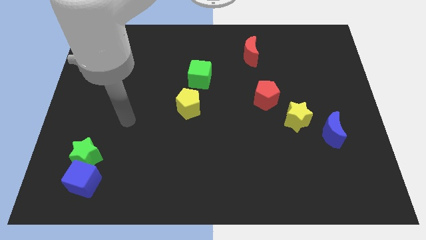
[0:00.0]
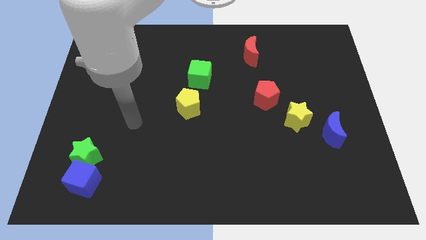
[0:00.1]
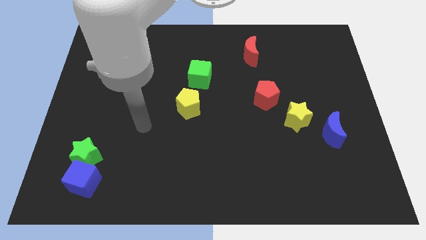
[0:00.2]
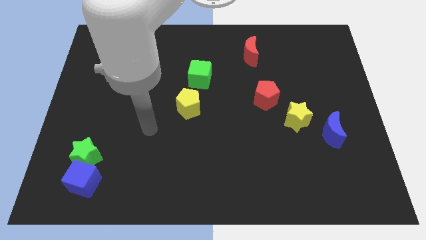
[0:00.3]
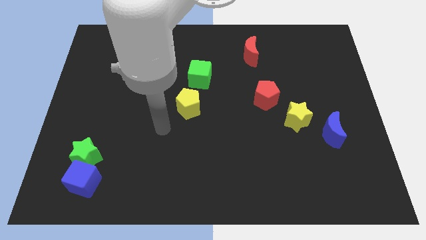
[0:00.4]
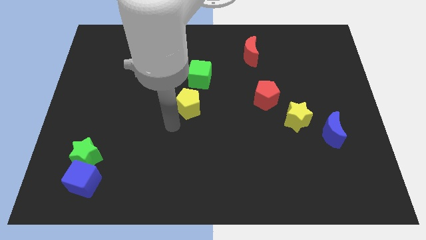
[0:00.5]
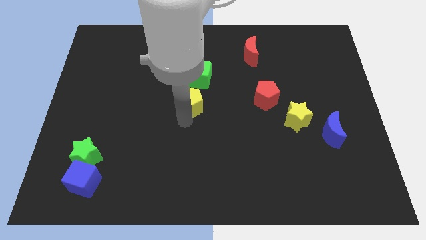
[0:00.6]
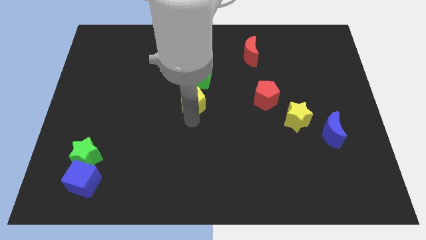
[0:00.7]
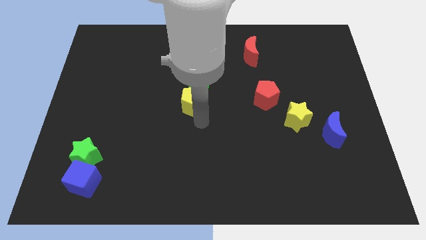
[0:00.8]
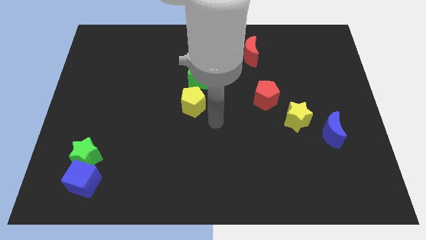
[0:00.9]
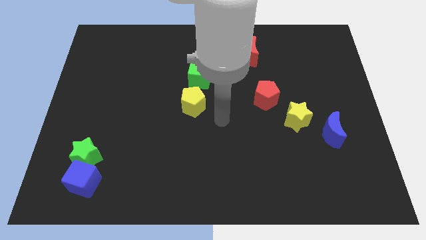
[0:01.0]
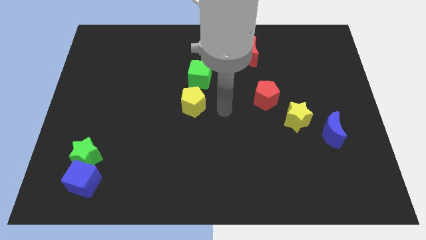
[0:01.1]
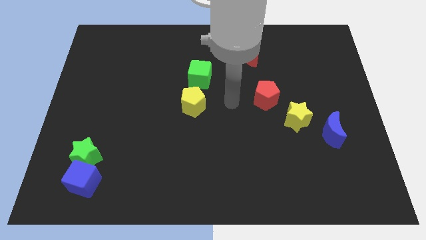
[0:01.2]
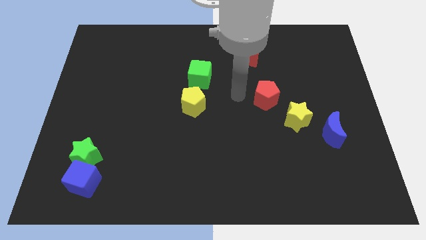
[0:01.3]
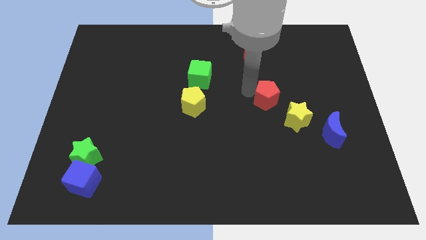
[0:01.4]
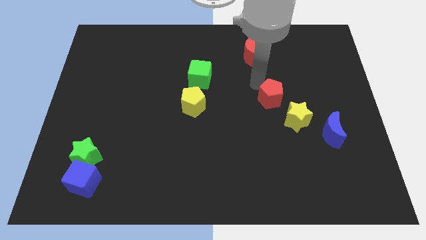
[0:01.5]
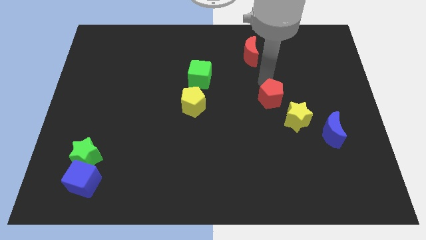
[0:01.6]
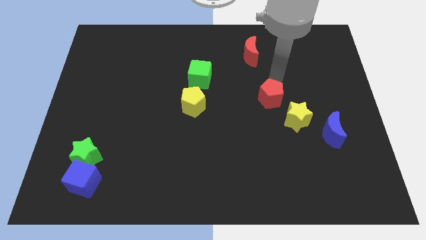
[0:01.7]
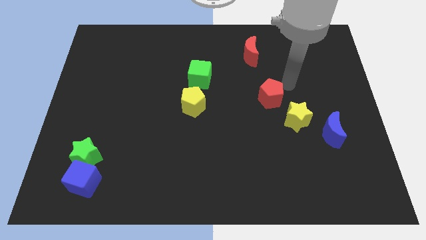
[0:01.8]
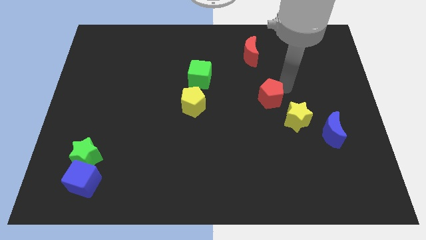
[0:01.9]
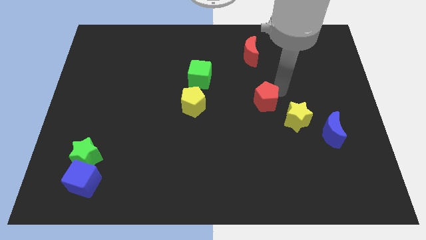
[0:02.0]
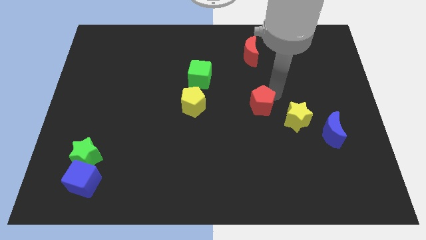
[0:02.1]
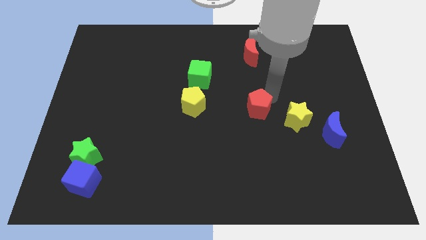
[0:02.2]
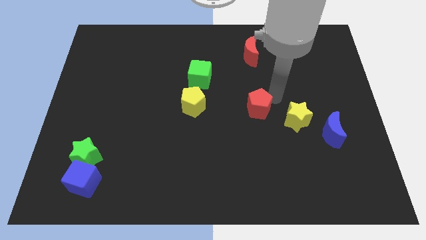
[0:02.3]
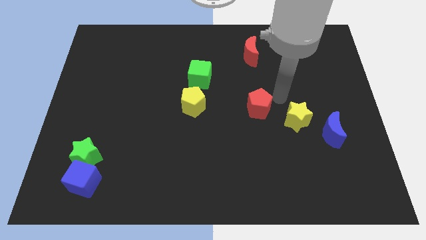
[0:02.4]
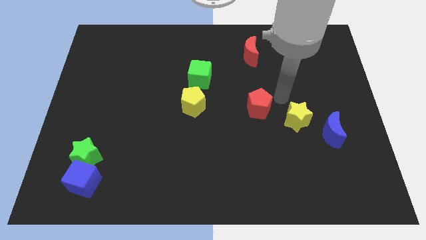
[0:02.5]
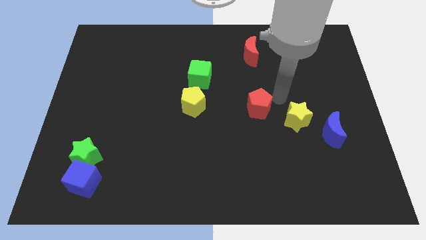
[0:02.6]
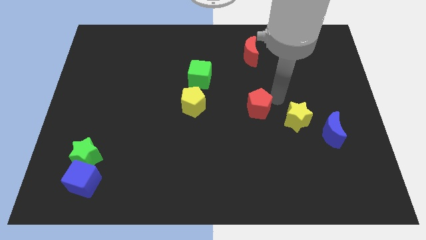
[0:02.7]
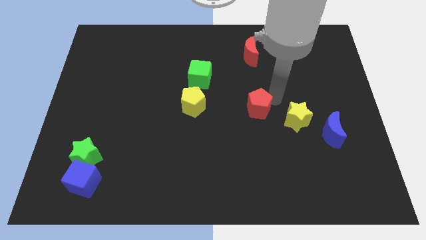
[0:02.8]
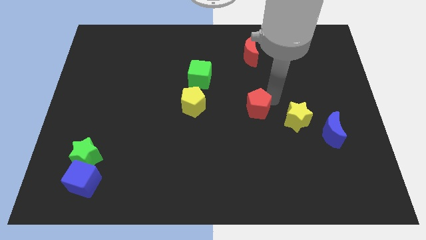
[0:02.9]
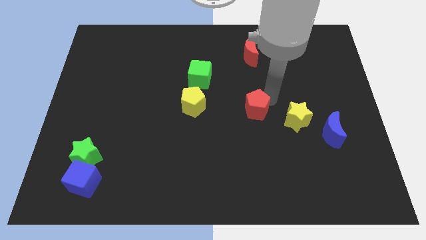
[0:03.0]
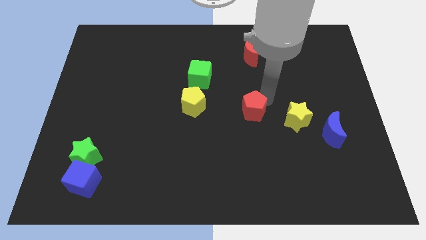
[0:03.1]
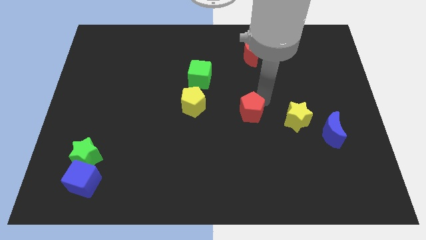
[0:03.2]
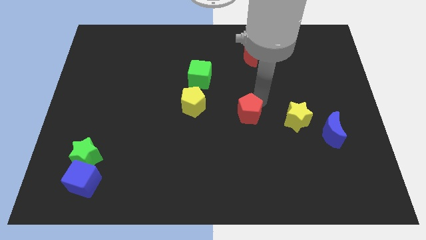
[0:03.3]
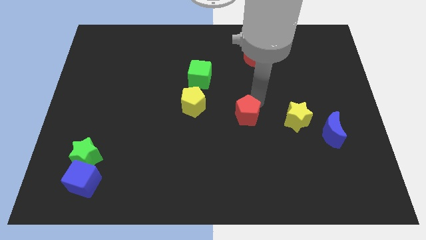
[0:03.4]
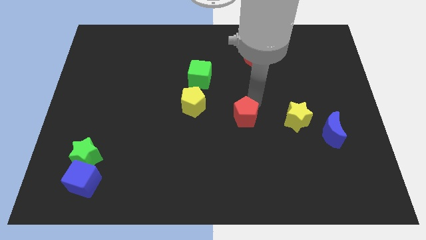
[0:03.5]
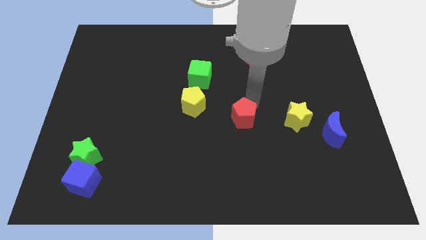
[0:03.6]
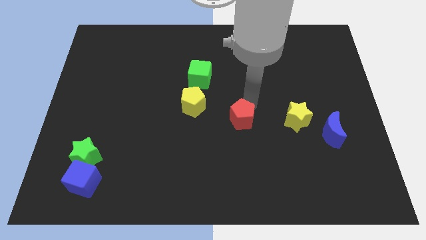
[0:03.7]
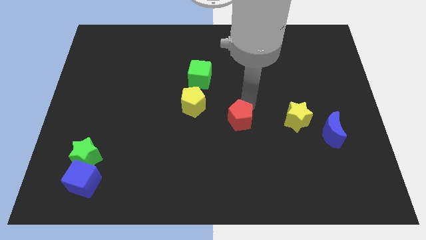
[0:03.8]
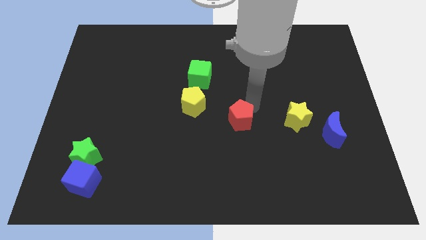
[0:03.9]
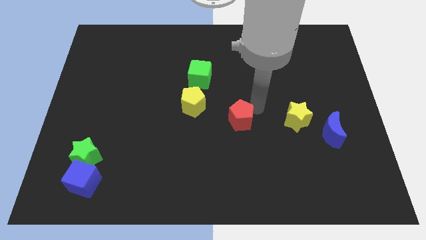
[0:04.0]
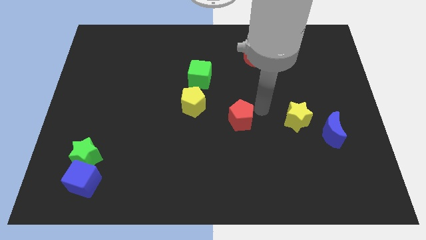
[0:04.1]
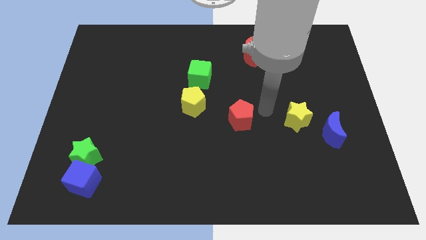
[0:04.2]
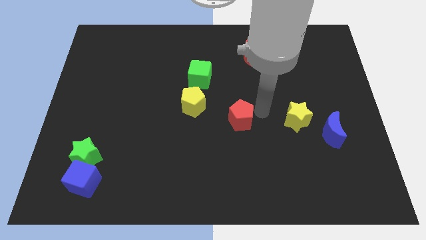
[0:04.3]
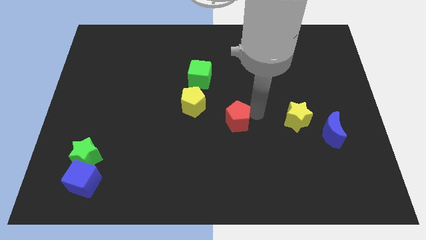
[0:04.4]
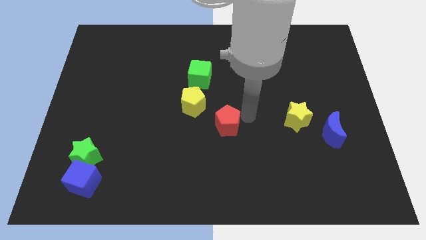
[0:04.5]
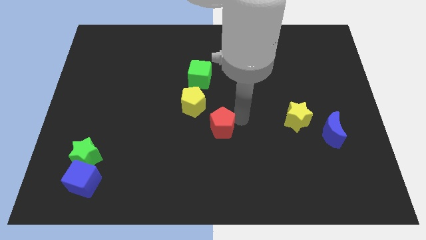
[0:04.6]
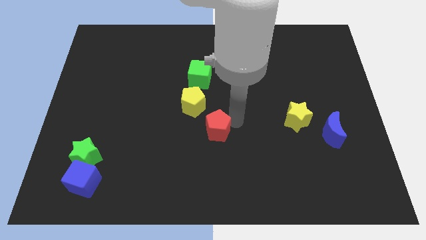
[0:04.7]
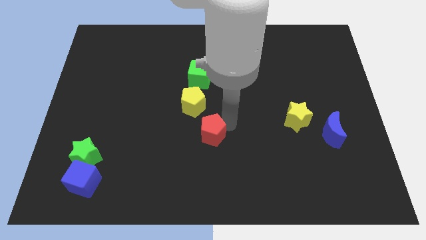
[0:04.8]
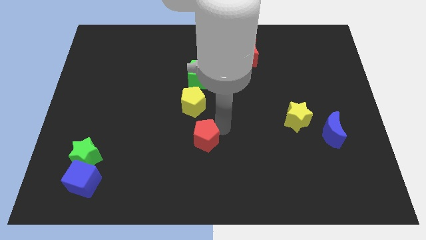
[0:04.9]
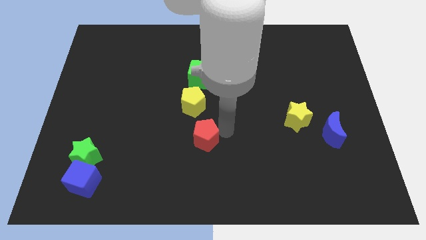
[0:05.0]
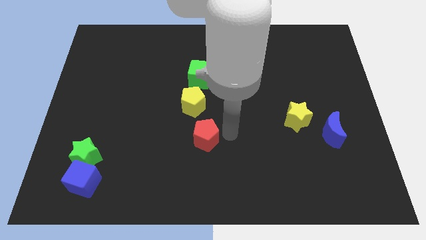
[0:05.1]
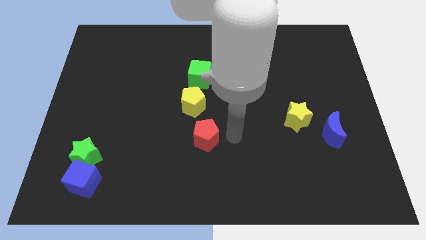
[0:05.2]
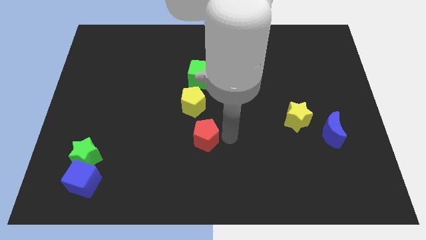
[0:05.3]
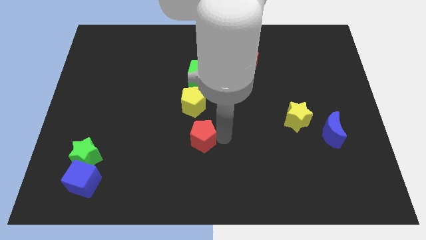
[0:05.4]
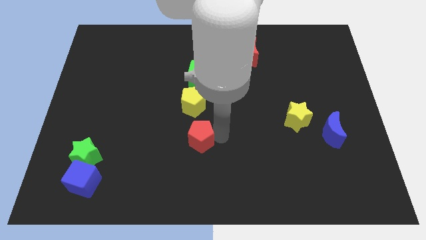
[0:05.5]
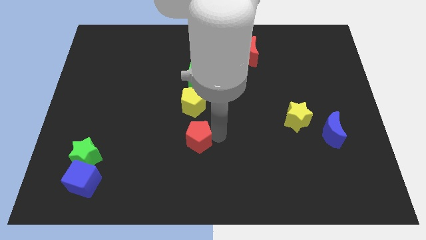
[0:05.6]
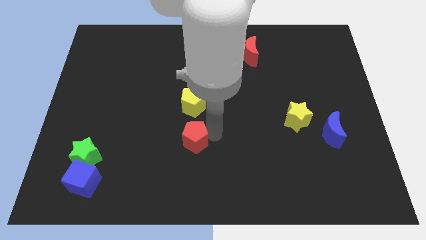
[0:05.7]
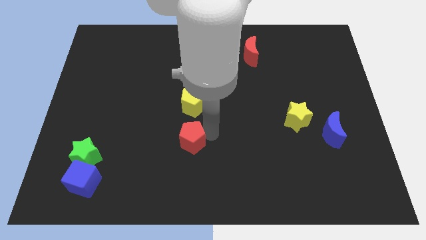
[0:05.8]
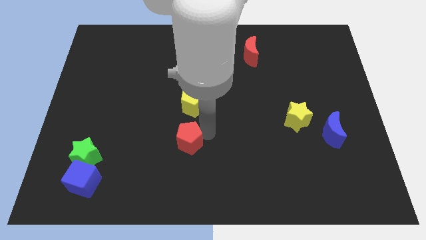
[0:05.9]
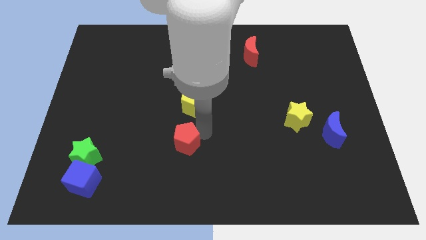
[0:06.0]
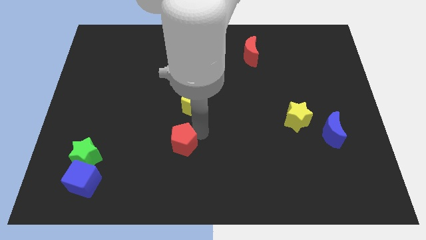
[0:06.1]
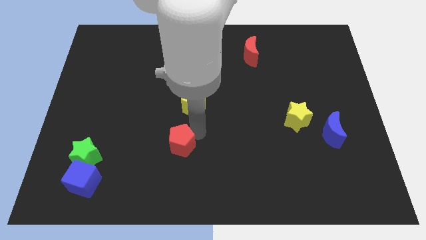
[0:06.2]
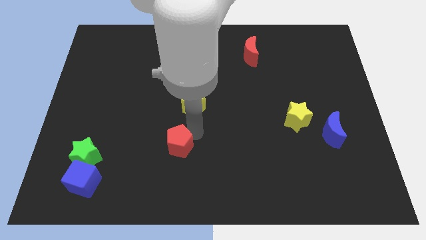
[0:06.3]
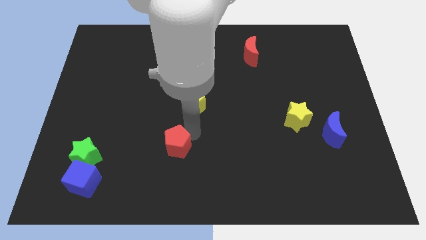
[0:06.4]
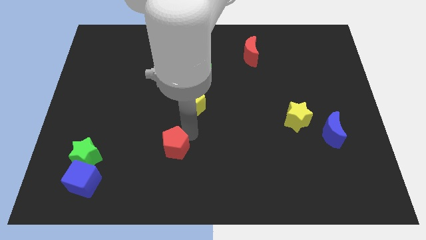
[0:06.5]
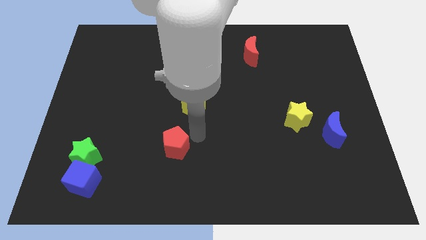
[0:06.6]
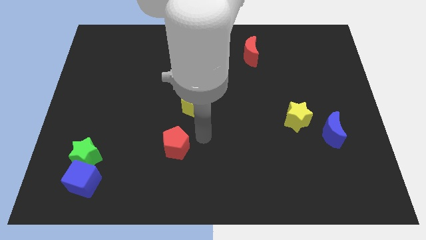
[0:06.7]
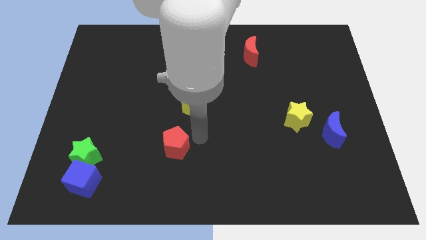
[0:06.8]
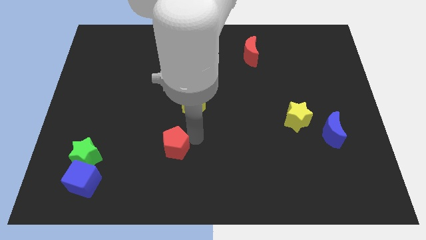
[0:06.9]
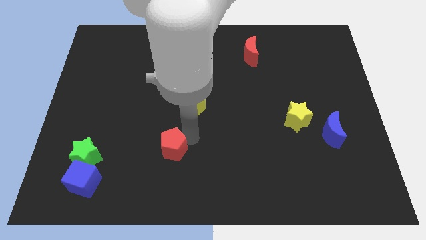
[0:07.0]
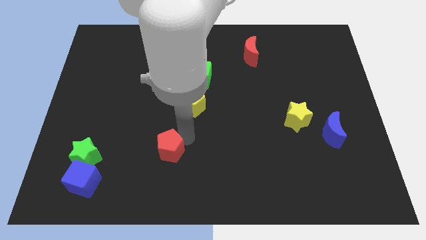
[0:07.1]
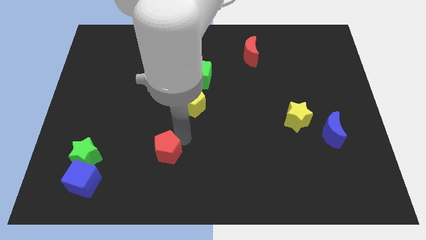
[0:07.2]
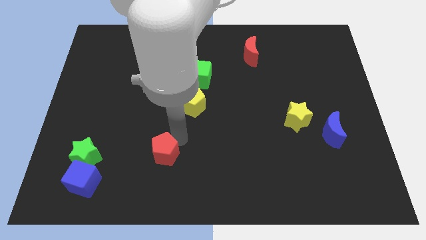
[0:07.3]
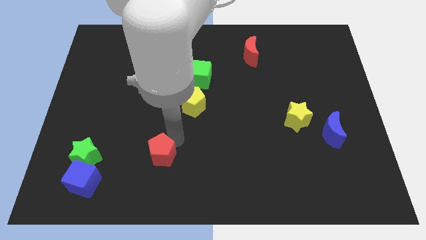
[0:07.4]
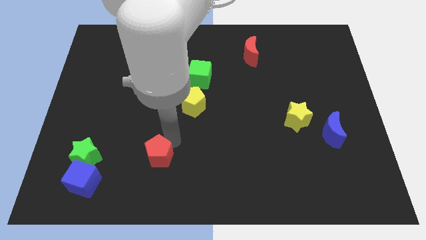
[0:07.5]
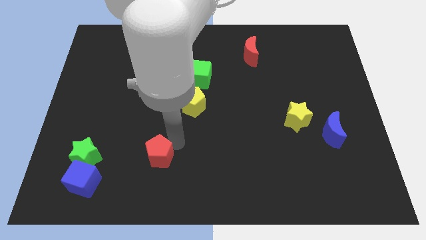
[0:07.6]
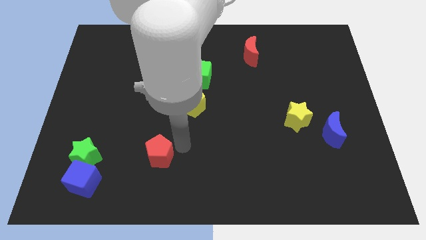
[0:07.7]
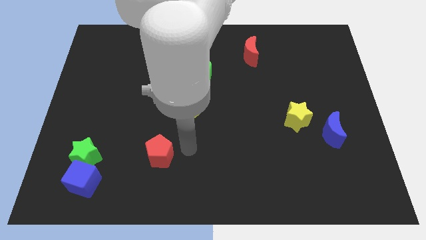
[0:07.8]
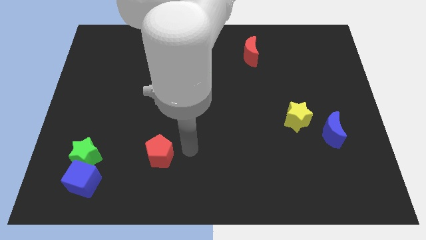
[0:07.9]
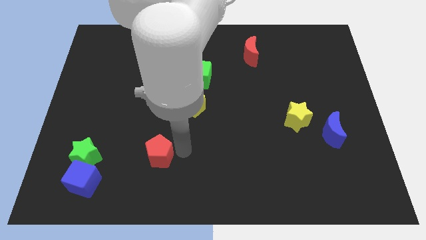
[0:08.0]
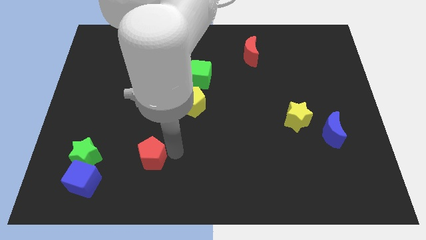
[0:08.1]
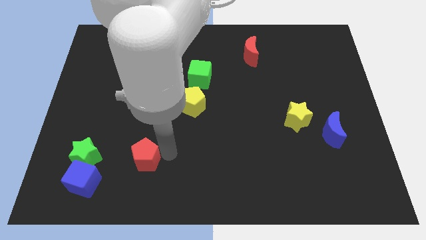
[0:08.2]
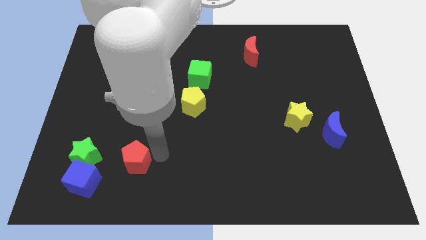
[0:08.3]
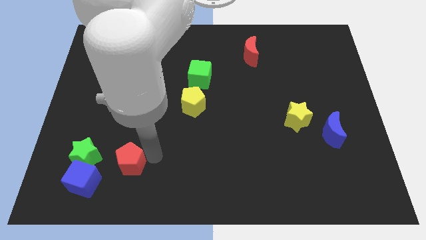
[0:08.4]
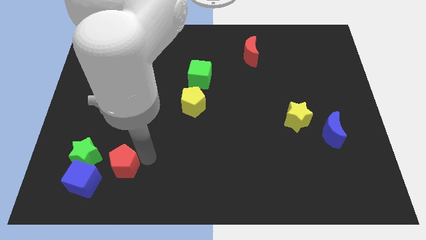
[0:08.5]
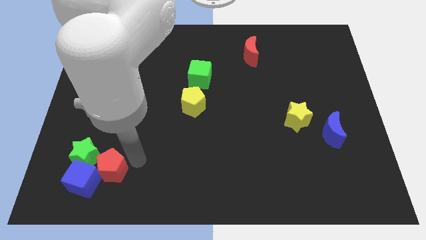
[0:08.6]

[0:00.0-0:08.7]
push the red pentagon close to the blue cube
